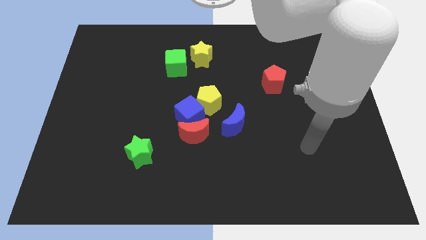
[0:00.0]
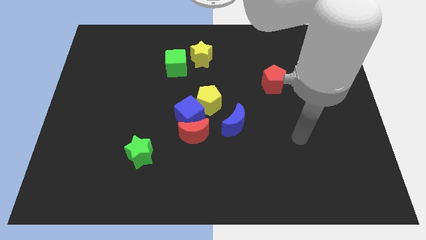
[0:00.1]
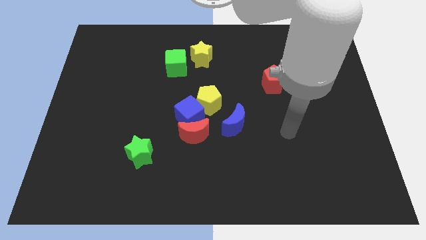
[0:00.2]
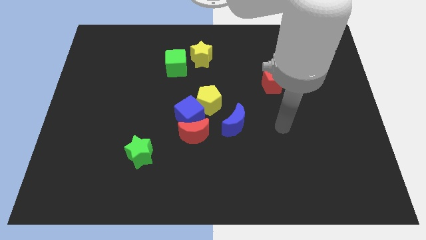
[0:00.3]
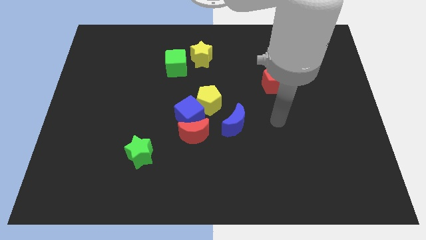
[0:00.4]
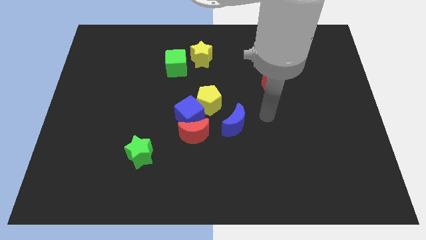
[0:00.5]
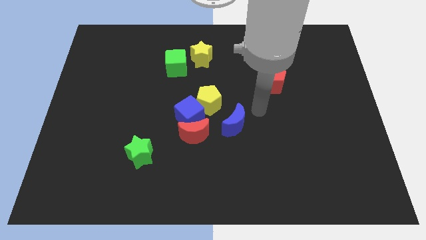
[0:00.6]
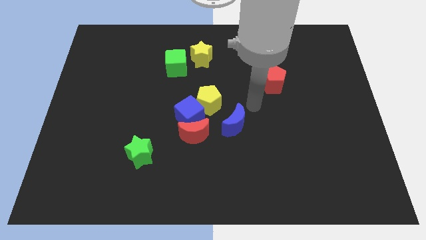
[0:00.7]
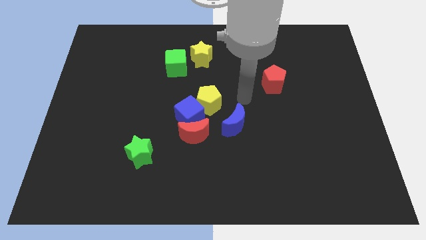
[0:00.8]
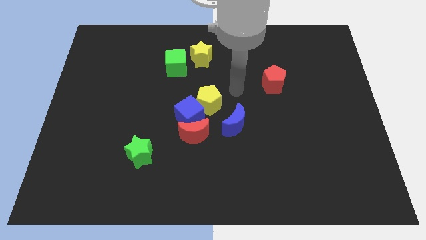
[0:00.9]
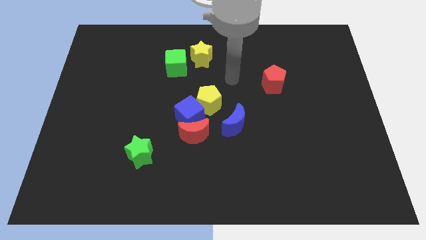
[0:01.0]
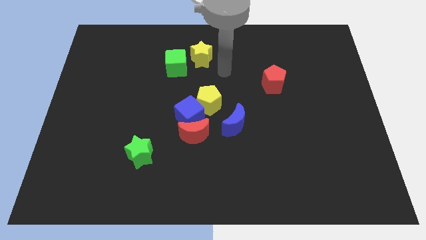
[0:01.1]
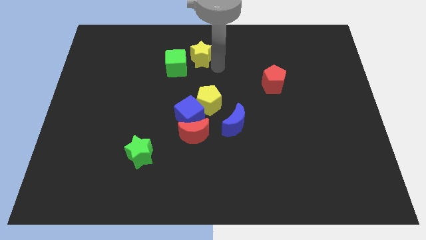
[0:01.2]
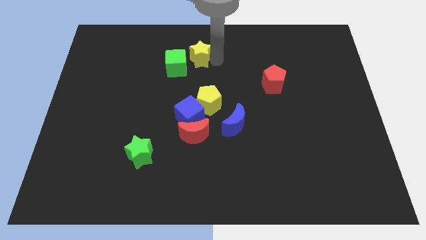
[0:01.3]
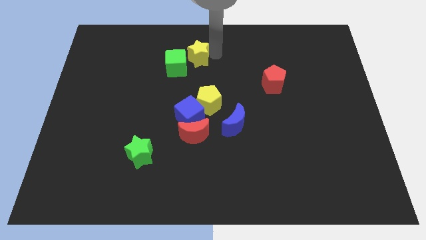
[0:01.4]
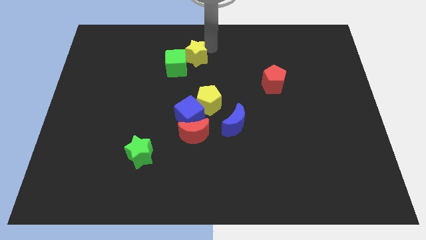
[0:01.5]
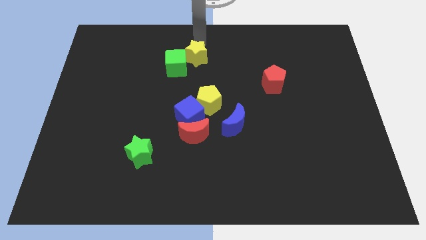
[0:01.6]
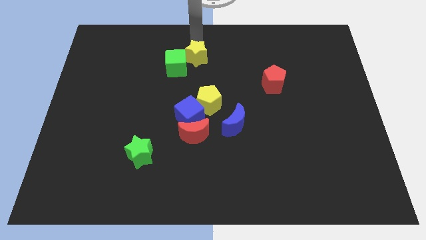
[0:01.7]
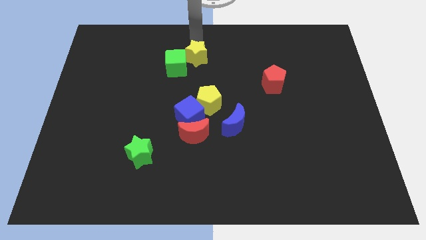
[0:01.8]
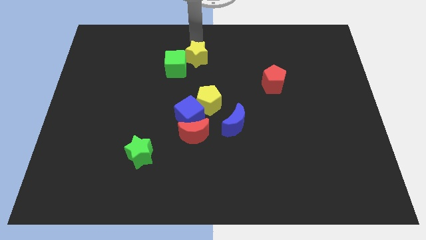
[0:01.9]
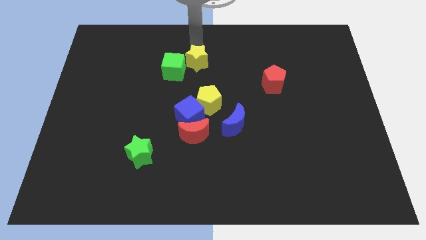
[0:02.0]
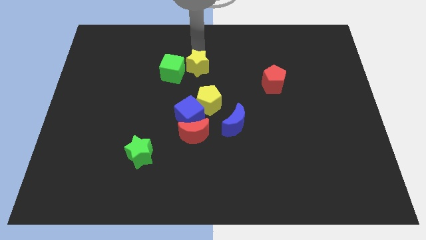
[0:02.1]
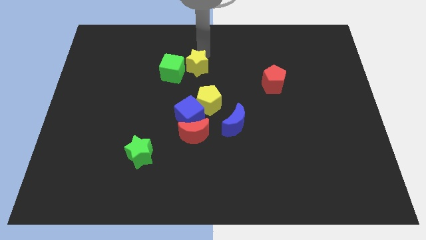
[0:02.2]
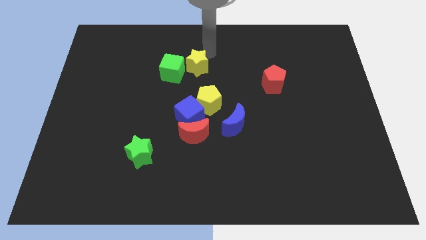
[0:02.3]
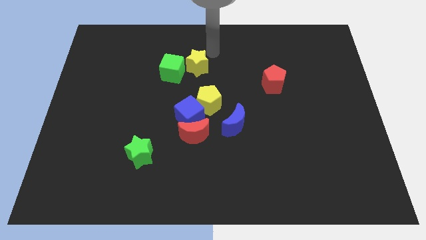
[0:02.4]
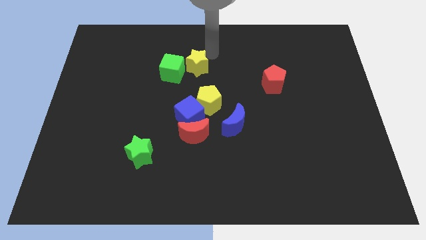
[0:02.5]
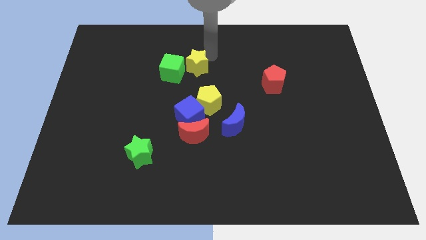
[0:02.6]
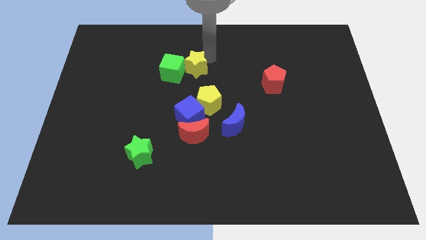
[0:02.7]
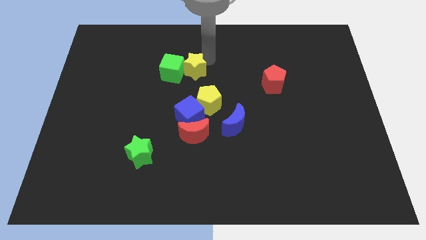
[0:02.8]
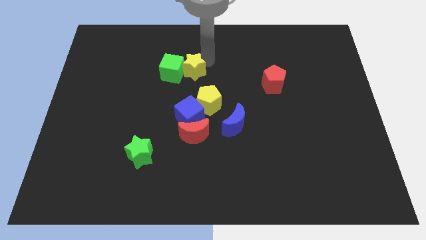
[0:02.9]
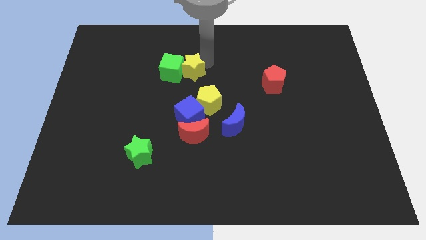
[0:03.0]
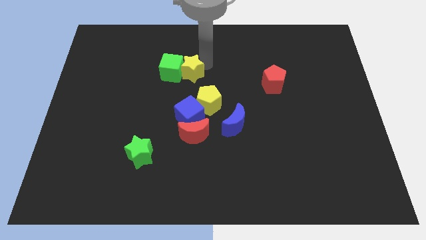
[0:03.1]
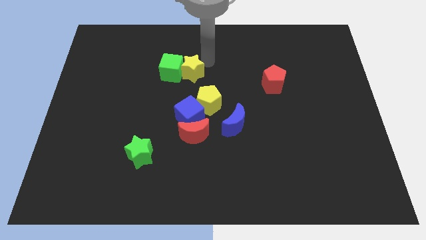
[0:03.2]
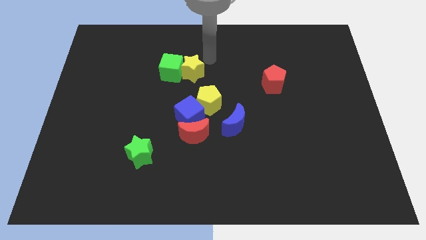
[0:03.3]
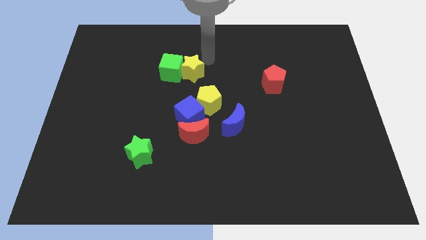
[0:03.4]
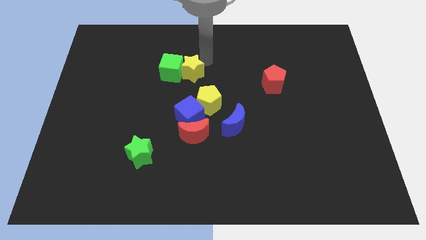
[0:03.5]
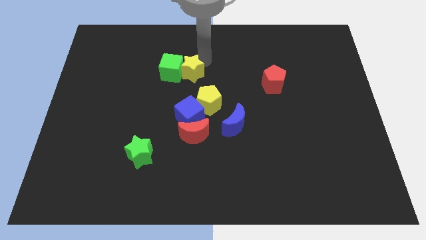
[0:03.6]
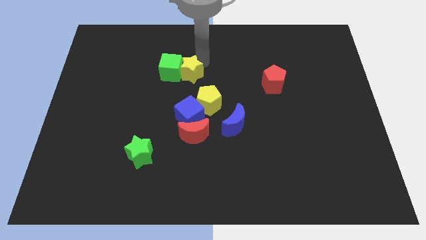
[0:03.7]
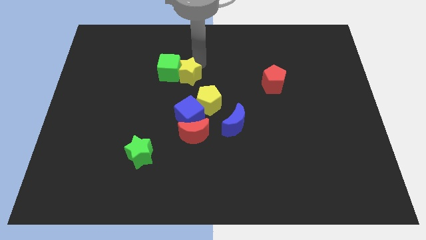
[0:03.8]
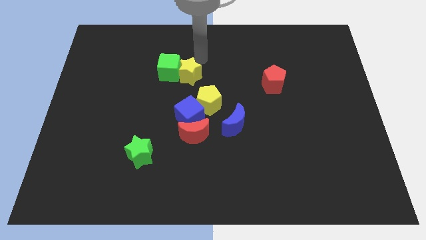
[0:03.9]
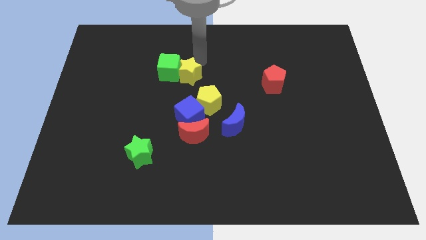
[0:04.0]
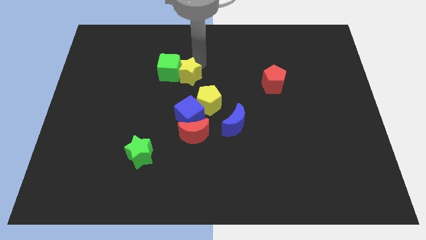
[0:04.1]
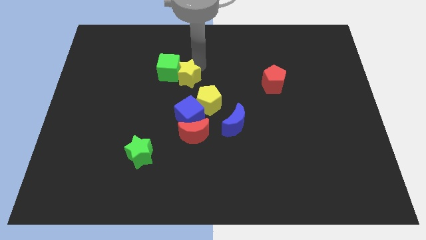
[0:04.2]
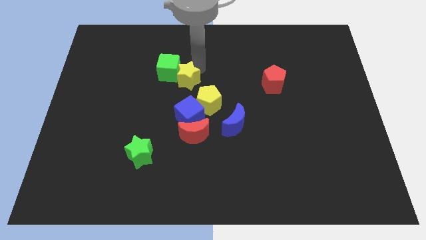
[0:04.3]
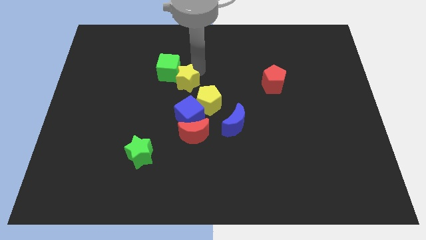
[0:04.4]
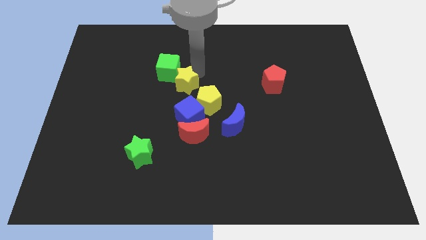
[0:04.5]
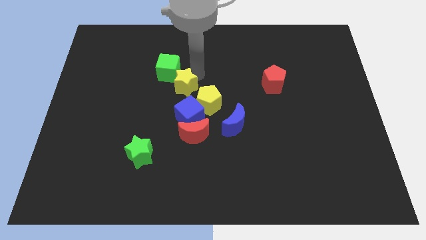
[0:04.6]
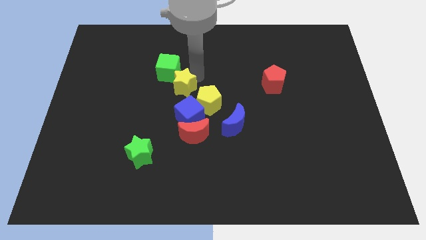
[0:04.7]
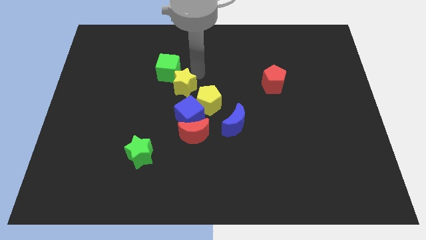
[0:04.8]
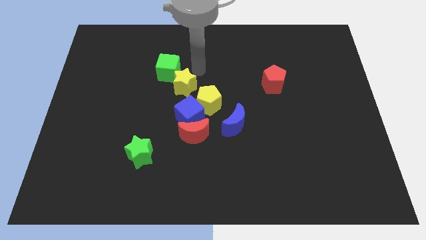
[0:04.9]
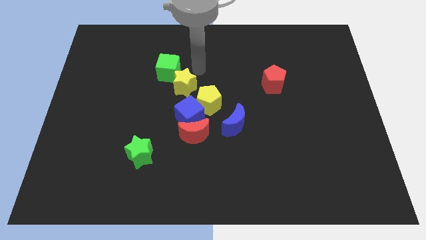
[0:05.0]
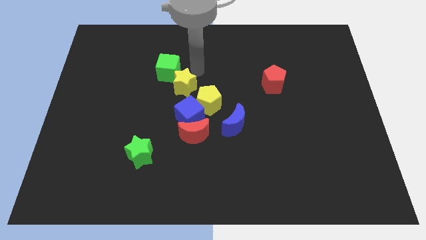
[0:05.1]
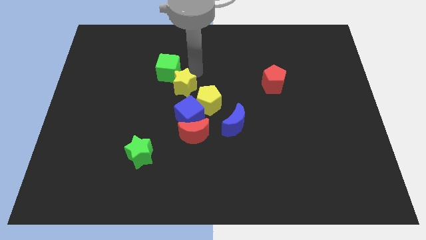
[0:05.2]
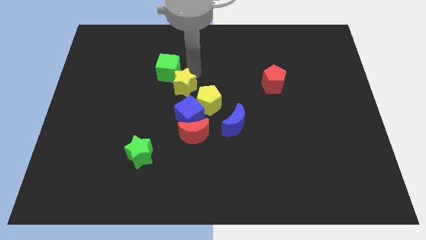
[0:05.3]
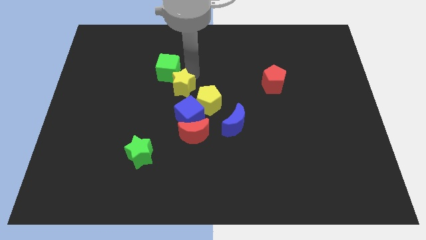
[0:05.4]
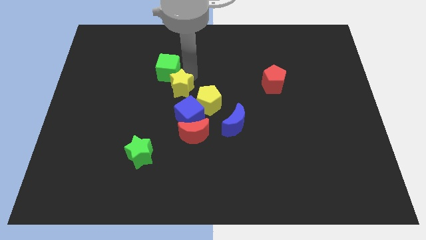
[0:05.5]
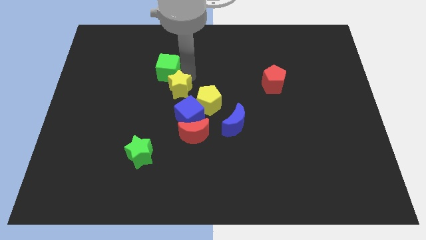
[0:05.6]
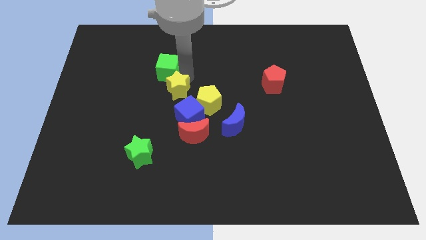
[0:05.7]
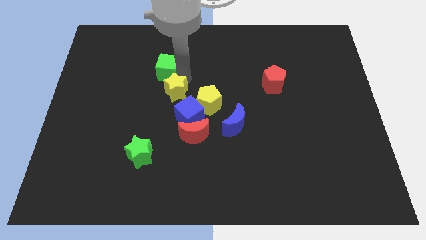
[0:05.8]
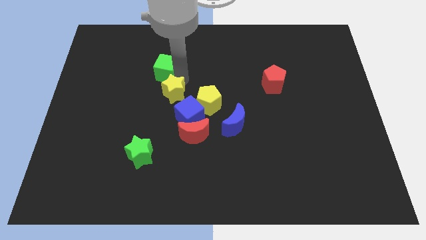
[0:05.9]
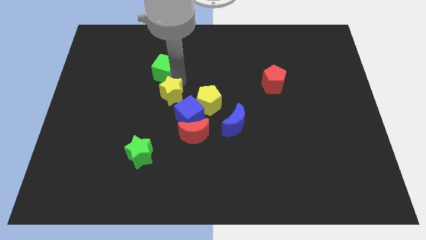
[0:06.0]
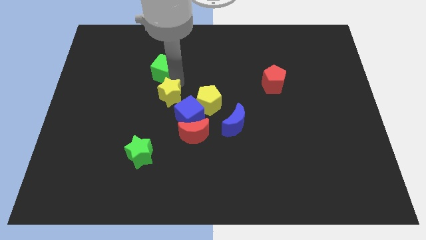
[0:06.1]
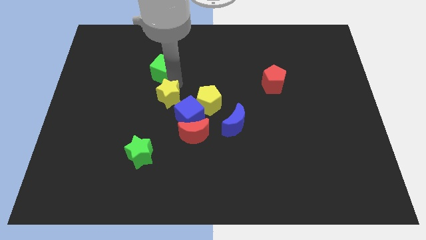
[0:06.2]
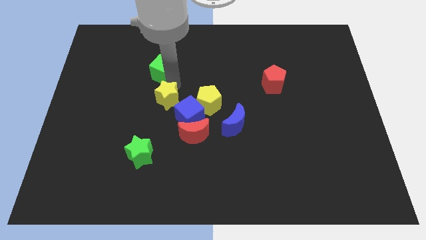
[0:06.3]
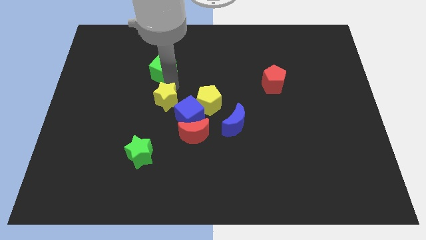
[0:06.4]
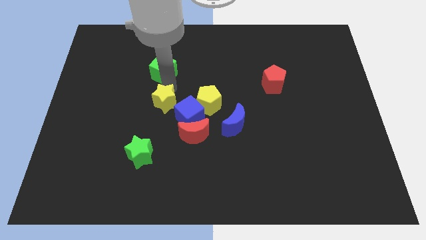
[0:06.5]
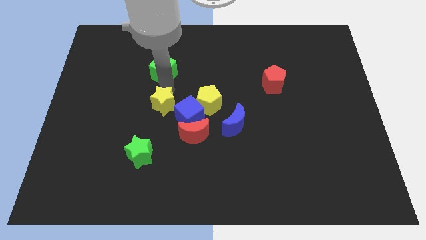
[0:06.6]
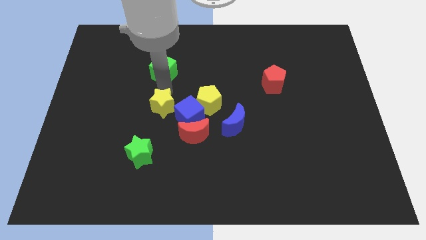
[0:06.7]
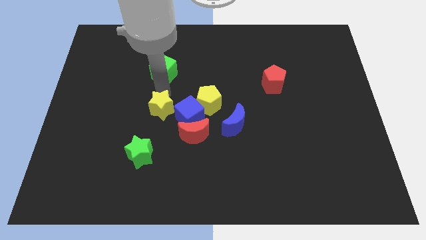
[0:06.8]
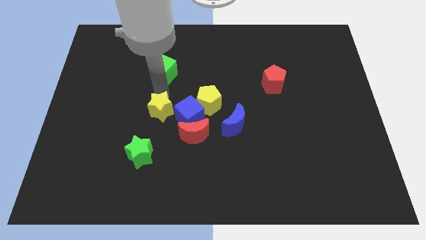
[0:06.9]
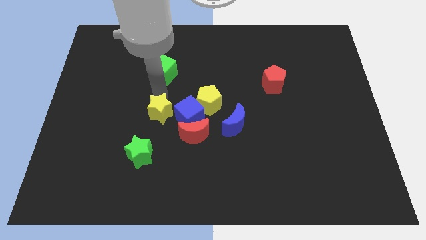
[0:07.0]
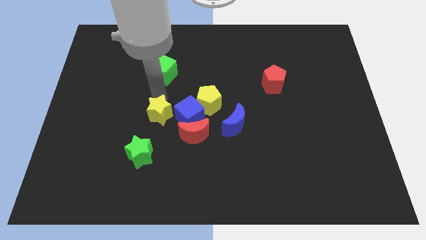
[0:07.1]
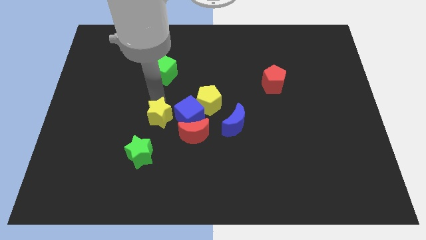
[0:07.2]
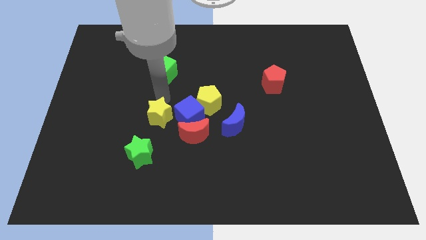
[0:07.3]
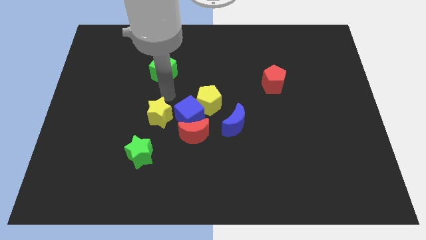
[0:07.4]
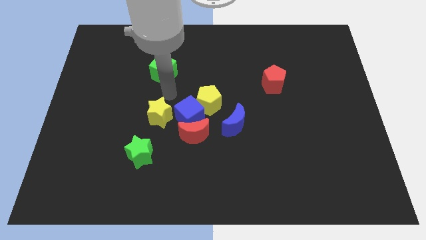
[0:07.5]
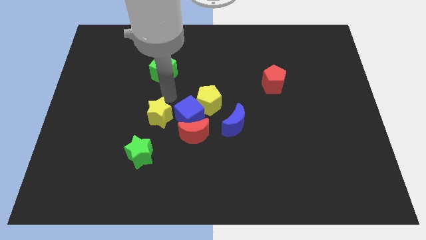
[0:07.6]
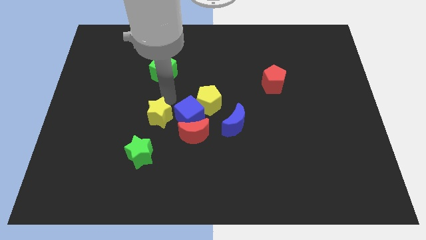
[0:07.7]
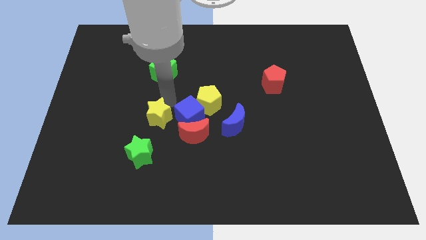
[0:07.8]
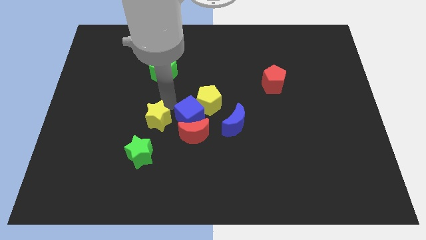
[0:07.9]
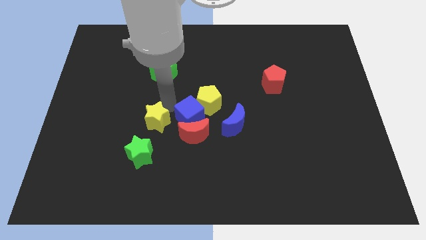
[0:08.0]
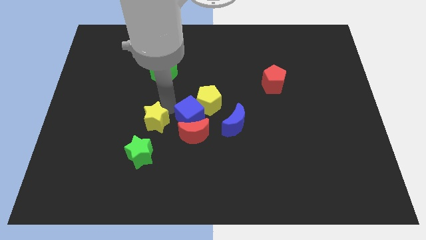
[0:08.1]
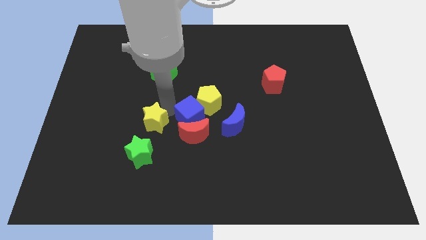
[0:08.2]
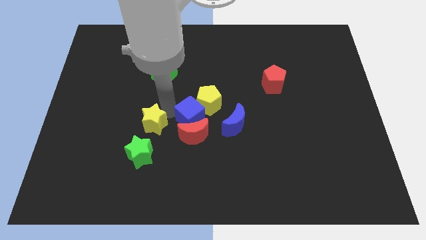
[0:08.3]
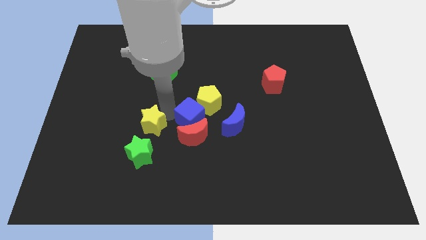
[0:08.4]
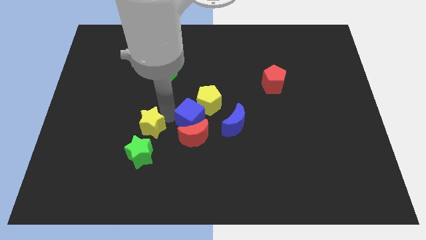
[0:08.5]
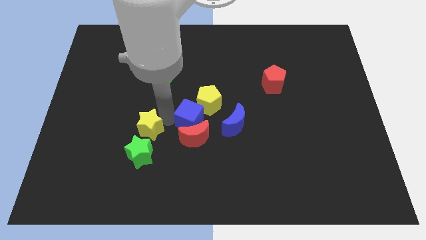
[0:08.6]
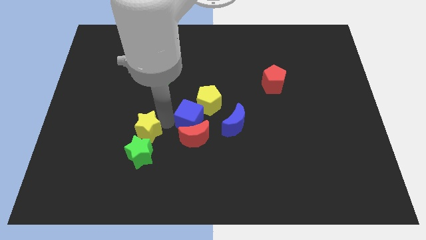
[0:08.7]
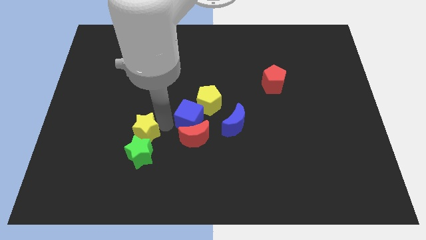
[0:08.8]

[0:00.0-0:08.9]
move the yellow star close to the green star
